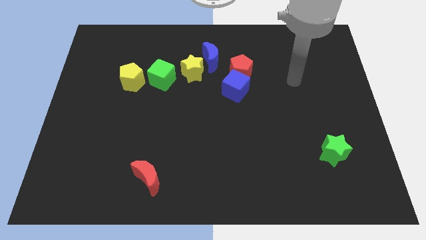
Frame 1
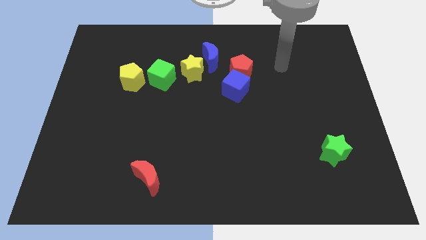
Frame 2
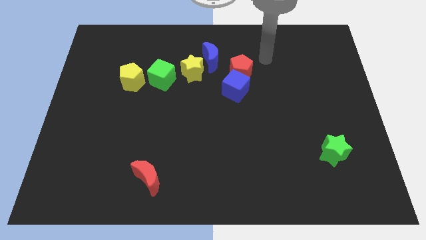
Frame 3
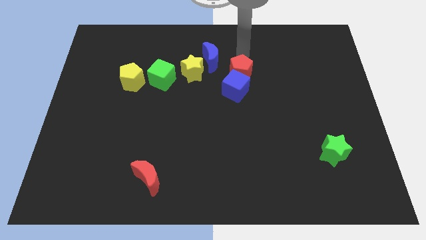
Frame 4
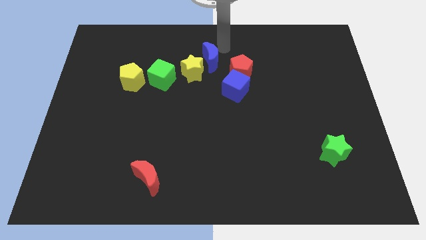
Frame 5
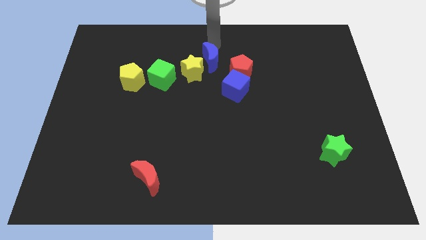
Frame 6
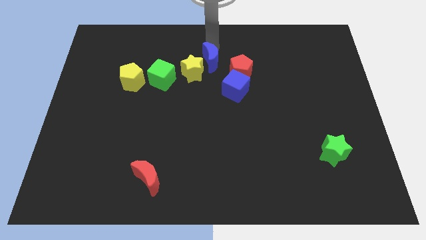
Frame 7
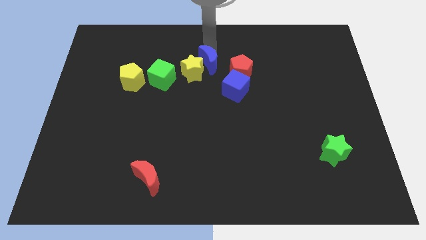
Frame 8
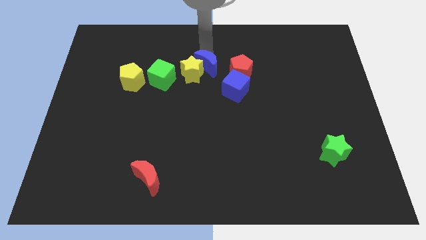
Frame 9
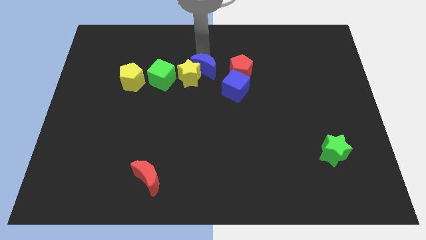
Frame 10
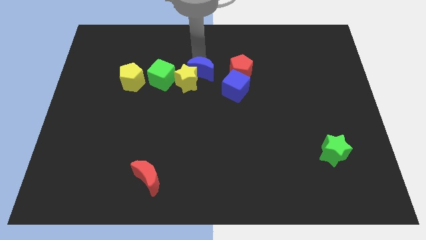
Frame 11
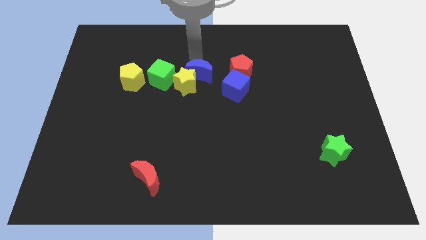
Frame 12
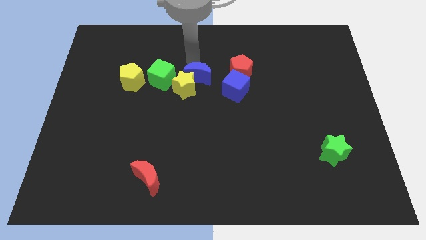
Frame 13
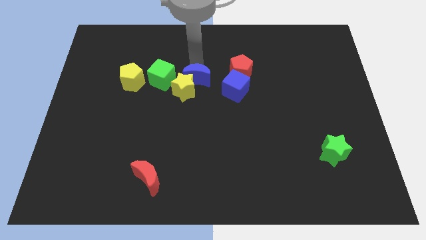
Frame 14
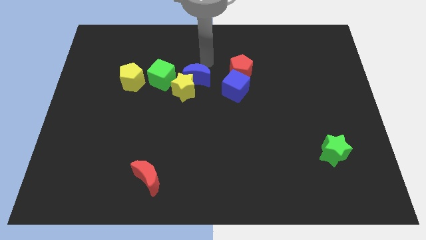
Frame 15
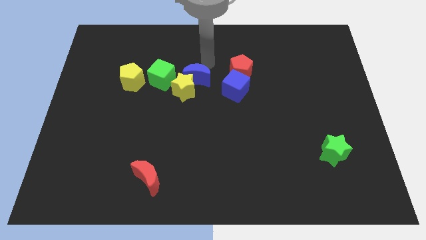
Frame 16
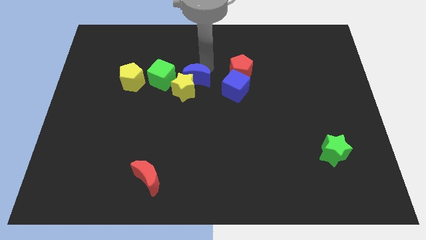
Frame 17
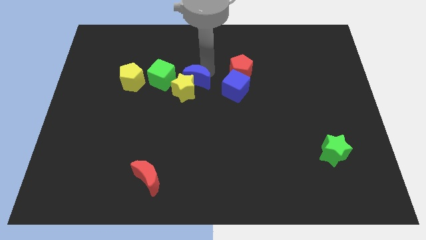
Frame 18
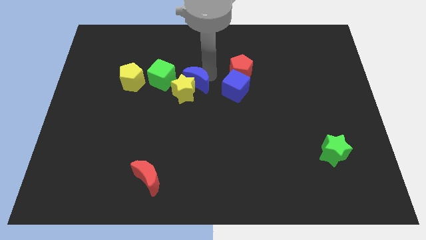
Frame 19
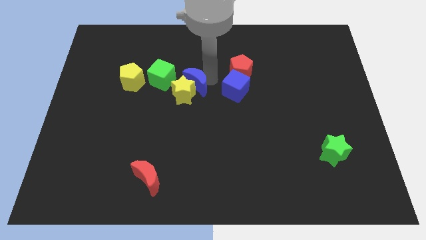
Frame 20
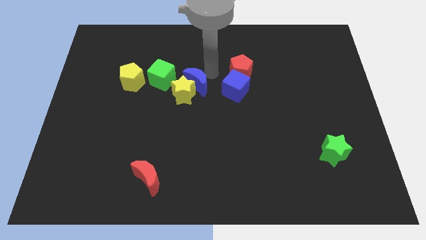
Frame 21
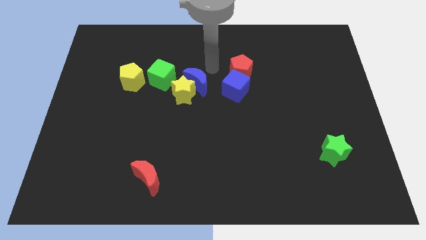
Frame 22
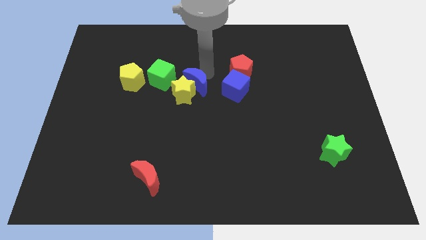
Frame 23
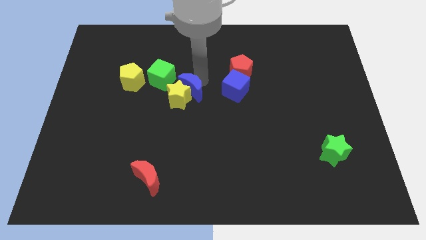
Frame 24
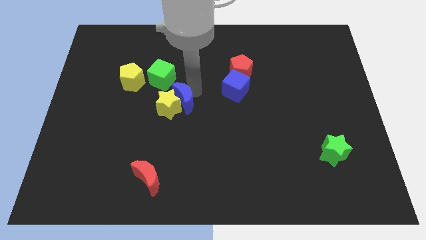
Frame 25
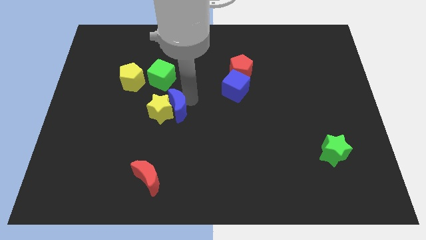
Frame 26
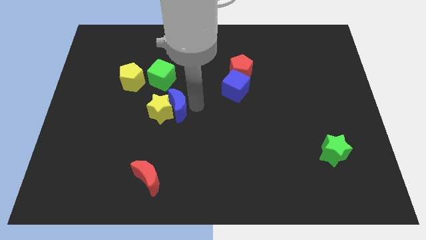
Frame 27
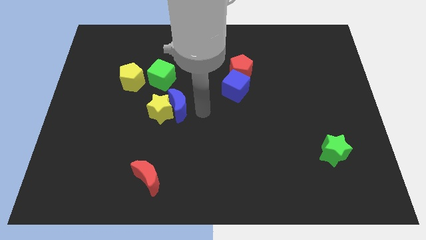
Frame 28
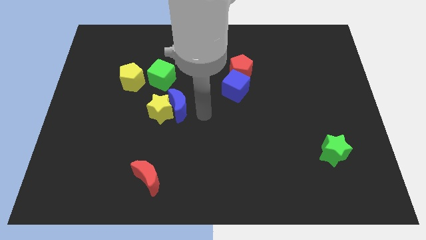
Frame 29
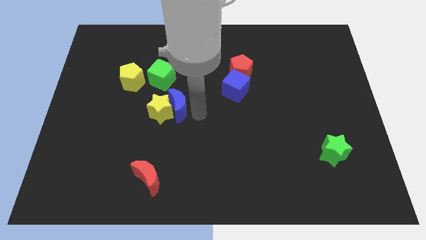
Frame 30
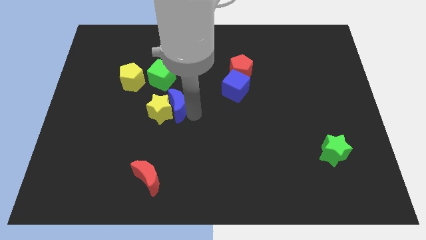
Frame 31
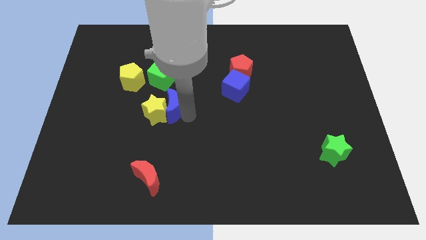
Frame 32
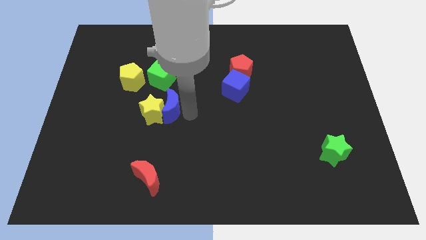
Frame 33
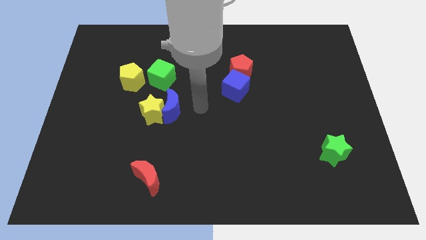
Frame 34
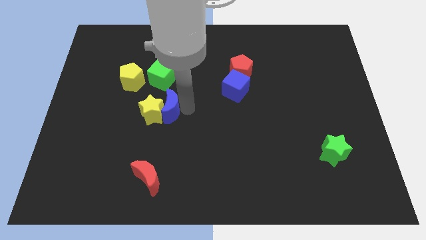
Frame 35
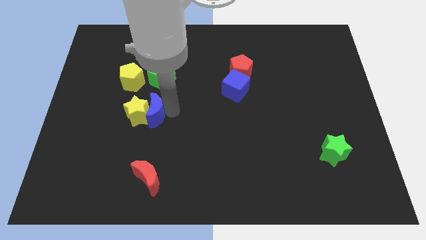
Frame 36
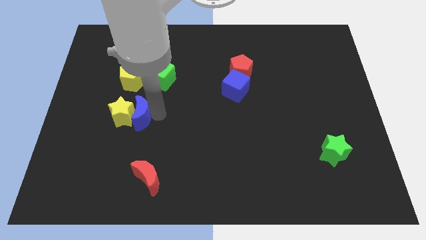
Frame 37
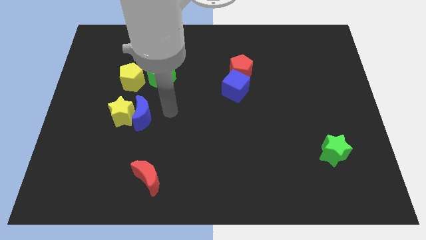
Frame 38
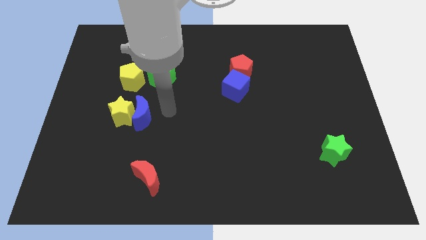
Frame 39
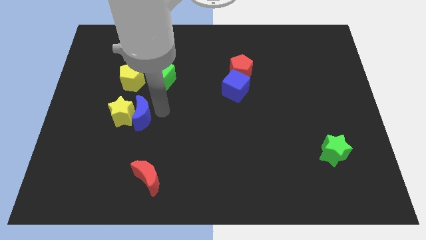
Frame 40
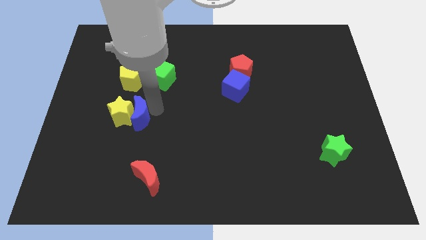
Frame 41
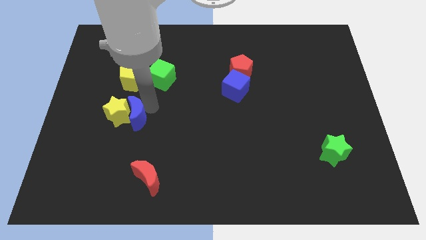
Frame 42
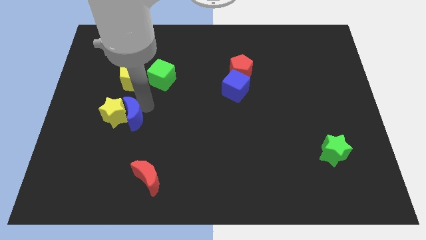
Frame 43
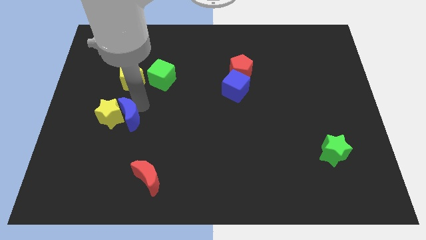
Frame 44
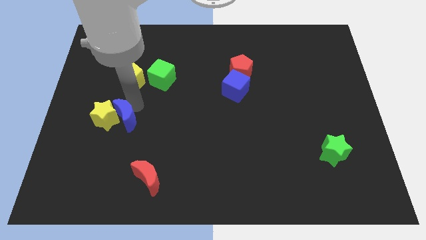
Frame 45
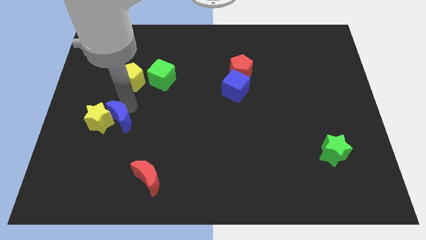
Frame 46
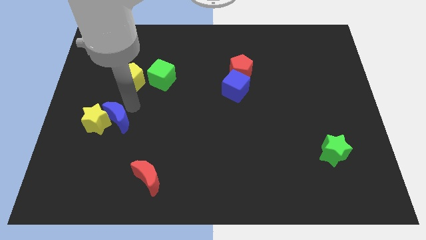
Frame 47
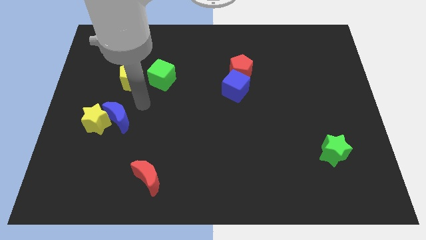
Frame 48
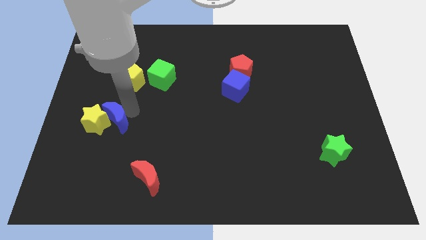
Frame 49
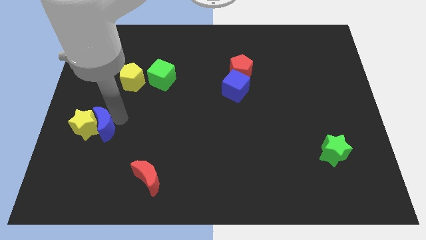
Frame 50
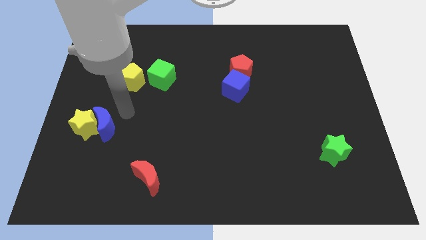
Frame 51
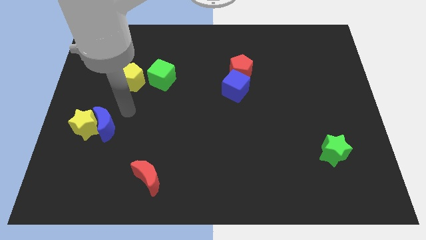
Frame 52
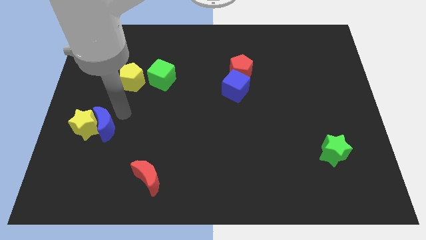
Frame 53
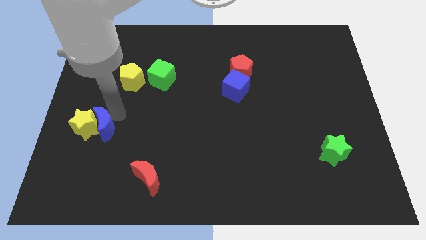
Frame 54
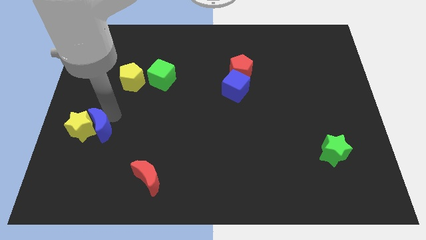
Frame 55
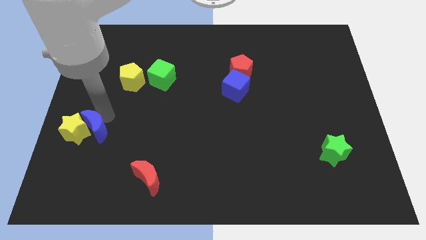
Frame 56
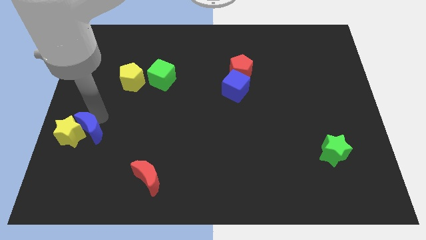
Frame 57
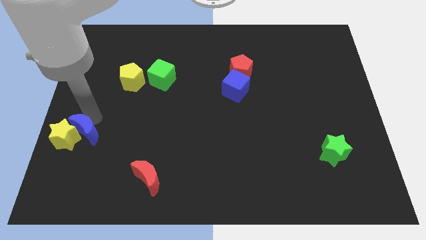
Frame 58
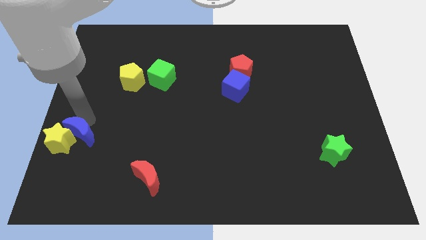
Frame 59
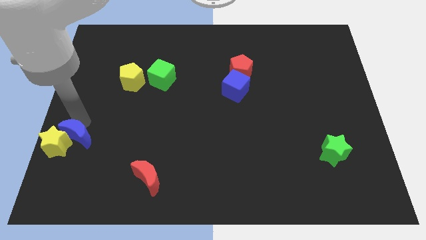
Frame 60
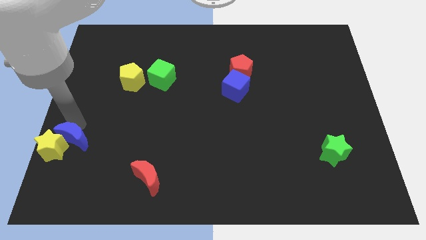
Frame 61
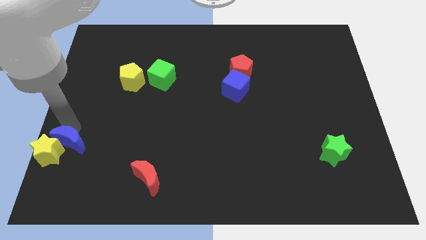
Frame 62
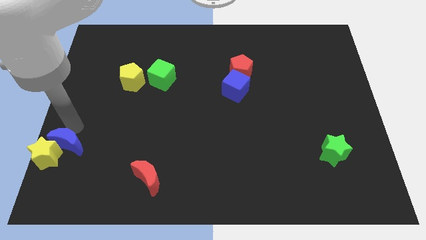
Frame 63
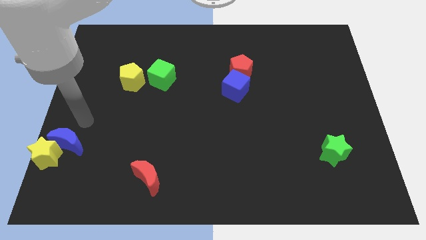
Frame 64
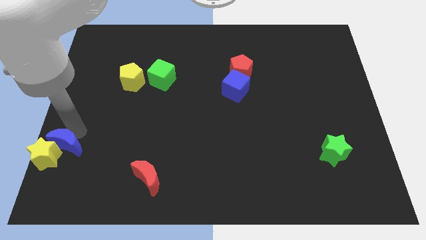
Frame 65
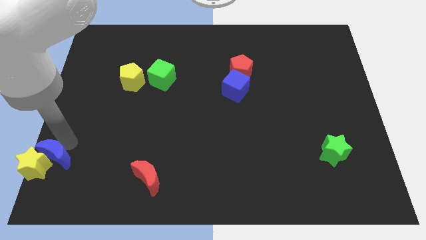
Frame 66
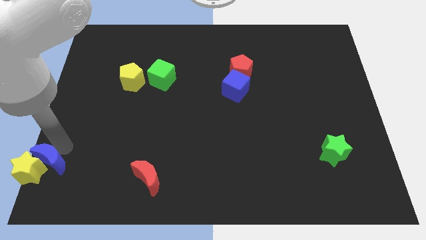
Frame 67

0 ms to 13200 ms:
put the blue moon to the lower left corner

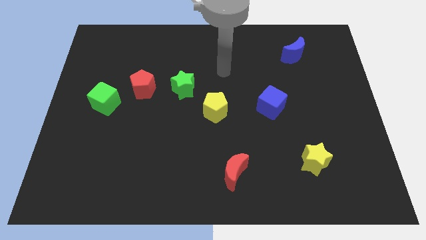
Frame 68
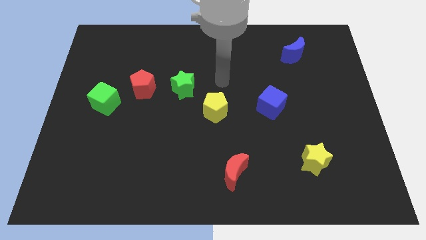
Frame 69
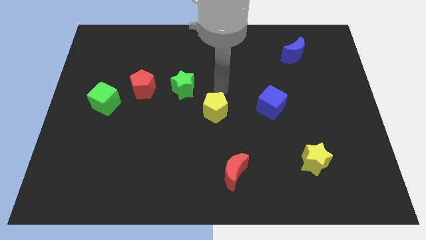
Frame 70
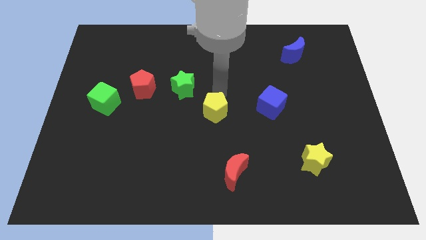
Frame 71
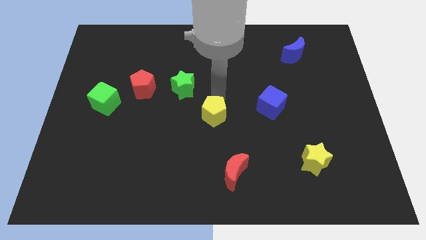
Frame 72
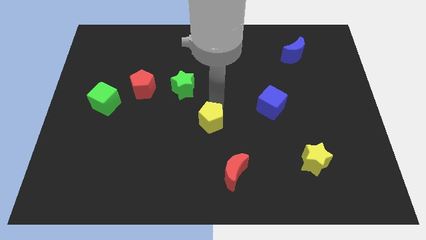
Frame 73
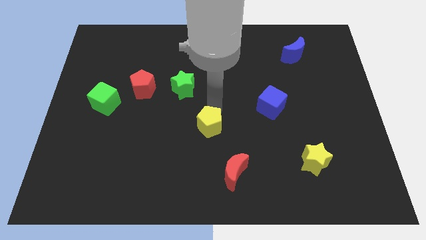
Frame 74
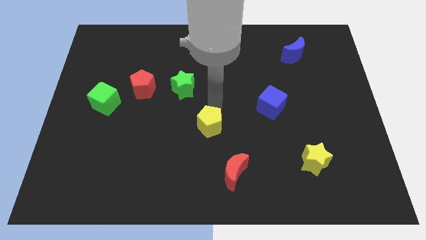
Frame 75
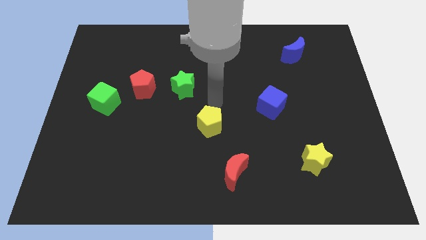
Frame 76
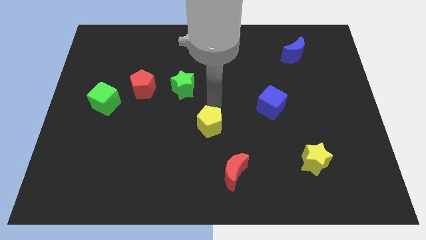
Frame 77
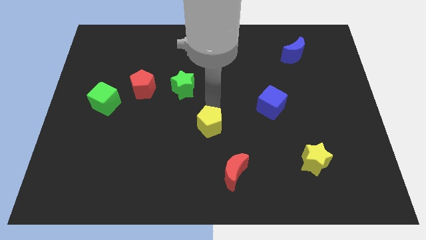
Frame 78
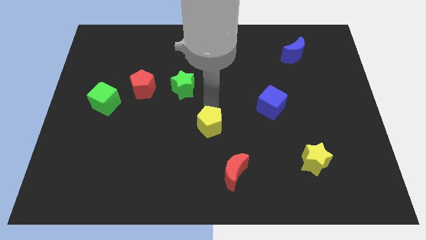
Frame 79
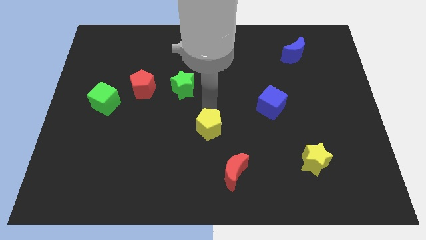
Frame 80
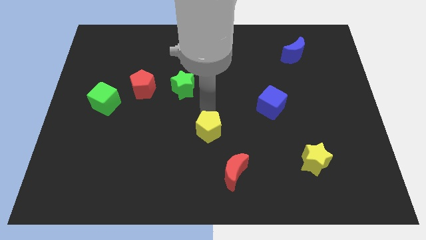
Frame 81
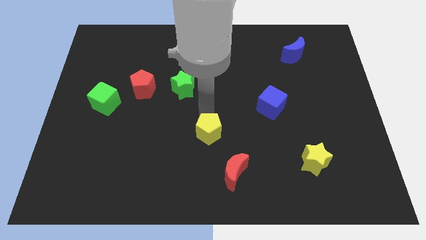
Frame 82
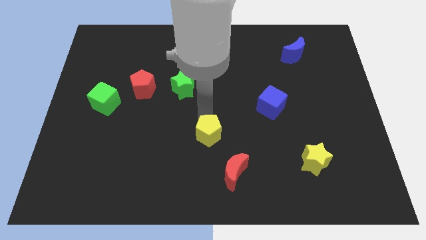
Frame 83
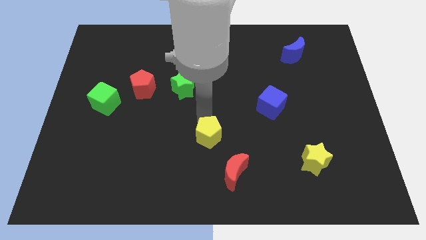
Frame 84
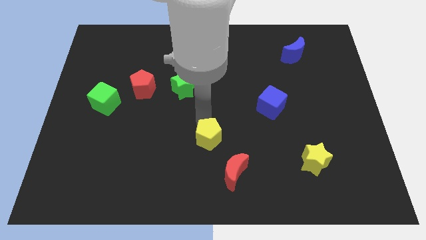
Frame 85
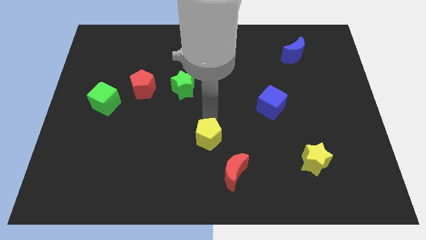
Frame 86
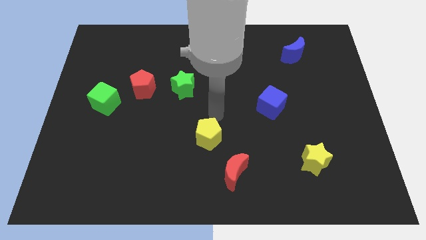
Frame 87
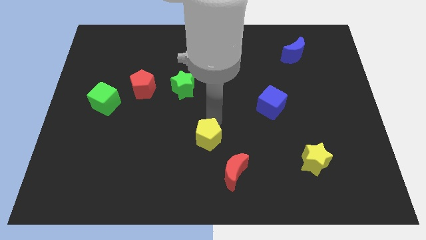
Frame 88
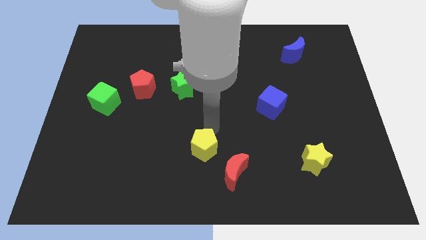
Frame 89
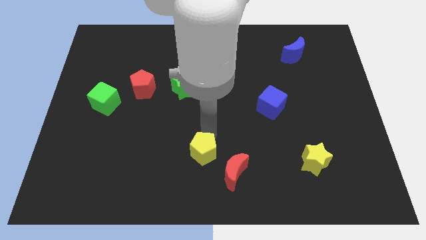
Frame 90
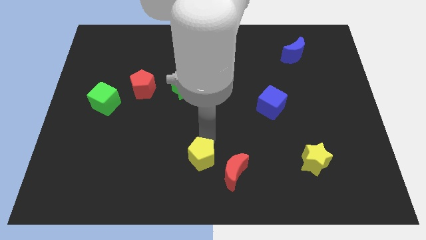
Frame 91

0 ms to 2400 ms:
push the yellow pentagon to the bottom side
